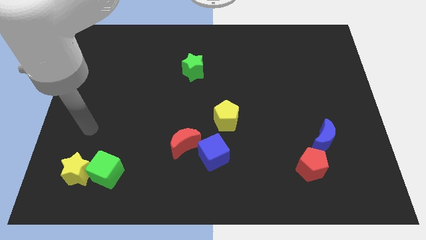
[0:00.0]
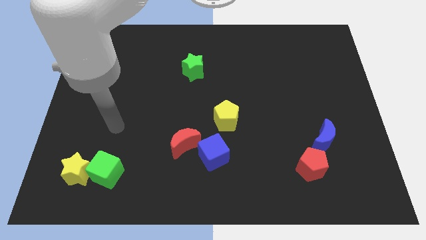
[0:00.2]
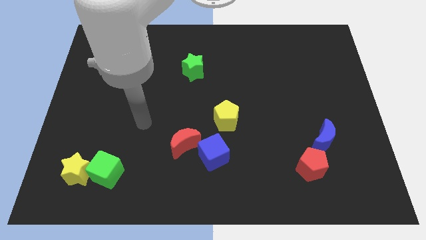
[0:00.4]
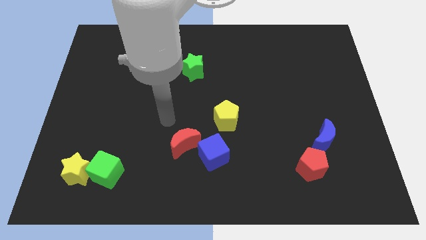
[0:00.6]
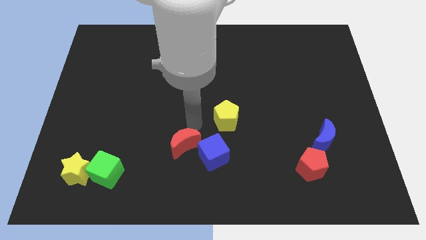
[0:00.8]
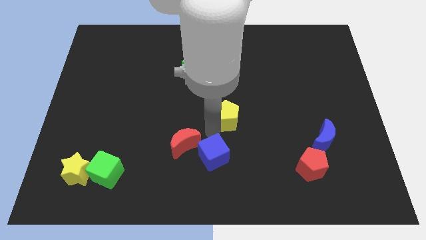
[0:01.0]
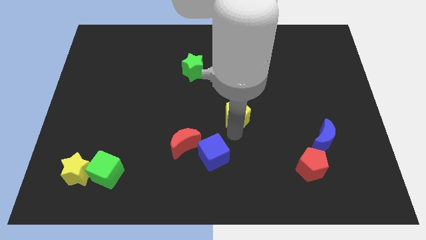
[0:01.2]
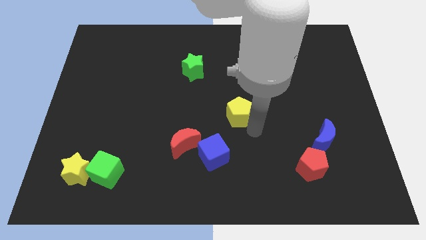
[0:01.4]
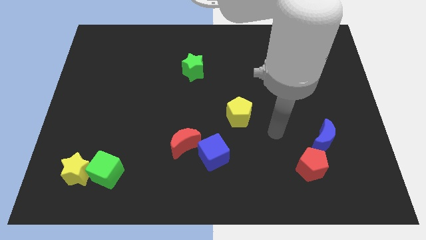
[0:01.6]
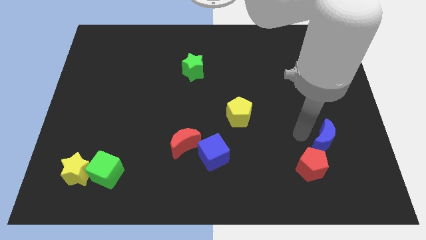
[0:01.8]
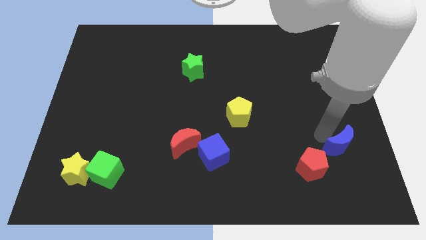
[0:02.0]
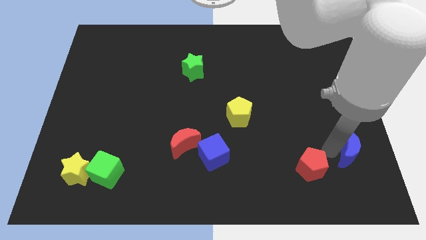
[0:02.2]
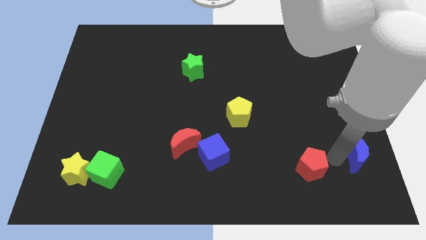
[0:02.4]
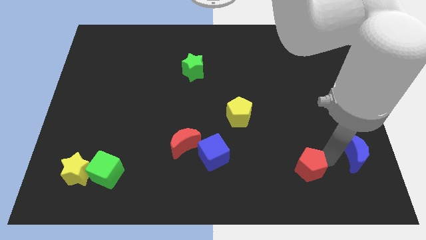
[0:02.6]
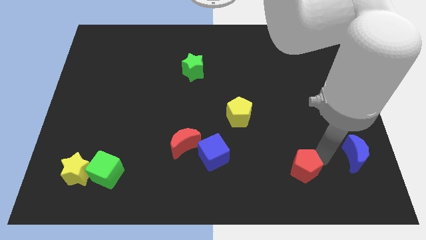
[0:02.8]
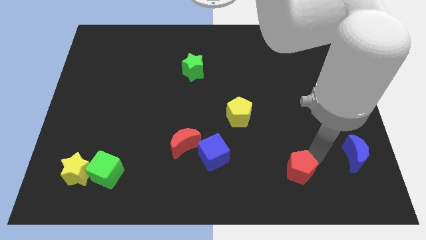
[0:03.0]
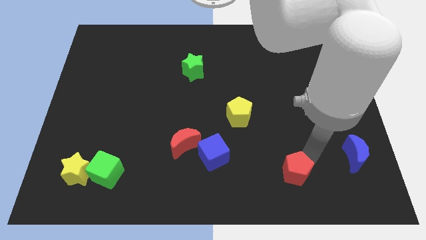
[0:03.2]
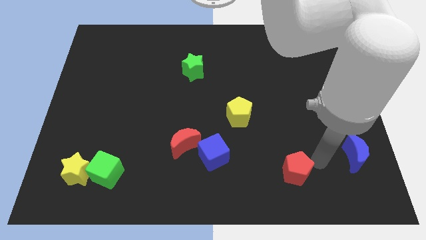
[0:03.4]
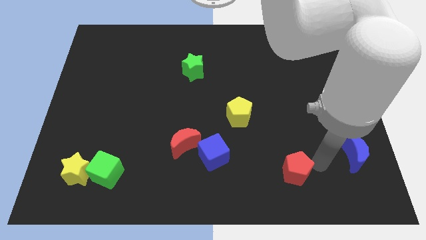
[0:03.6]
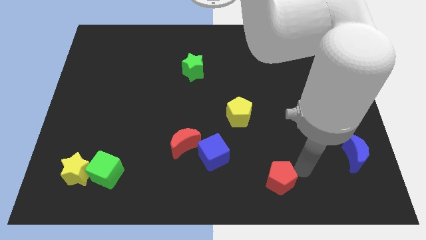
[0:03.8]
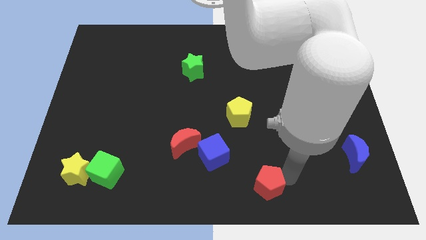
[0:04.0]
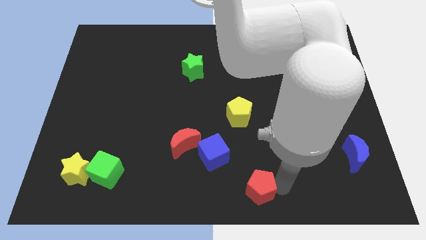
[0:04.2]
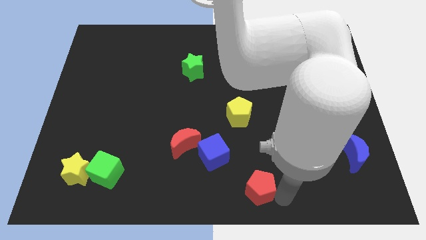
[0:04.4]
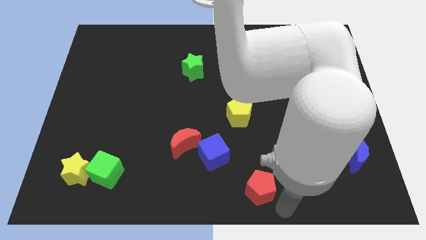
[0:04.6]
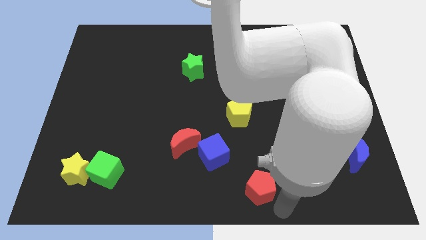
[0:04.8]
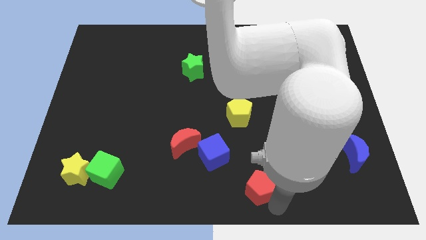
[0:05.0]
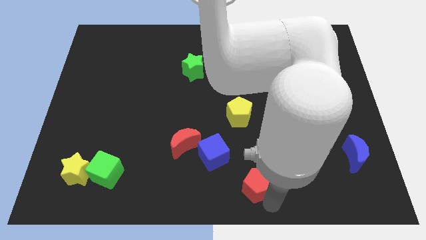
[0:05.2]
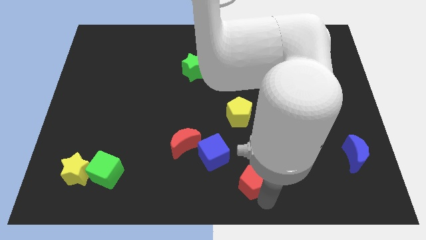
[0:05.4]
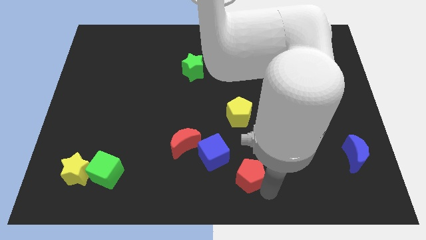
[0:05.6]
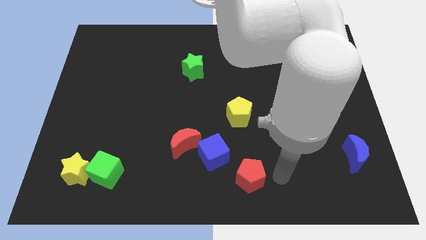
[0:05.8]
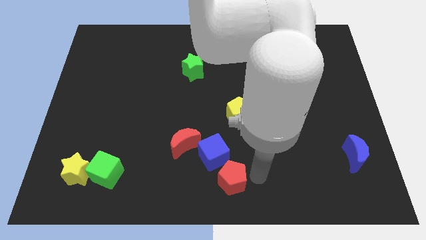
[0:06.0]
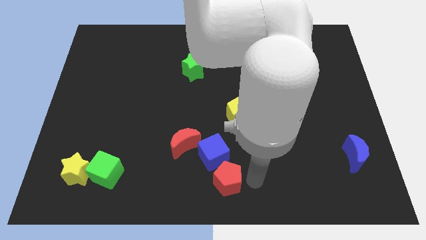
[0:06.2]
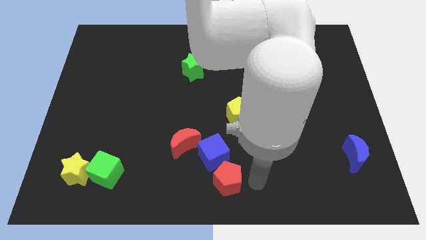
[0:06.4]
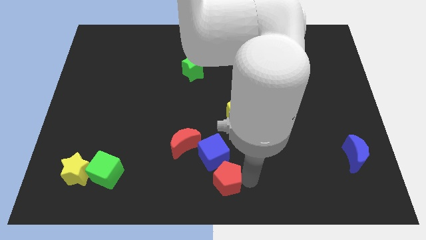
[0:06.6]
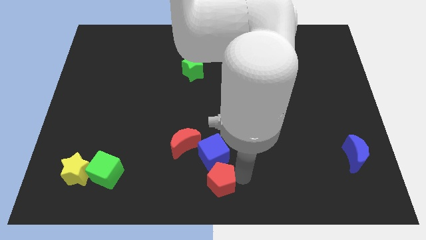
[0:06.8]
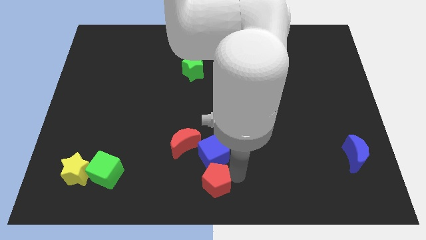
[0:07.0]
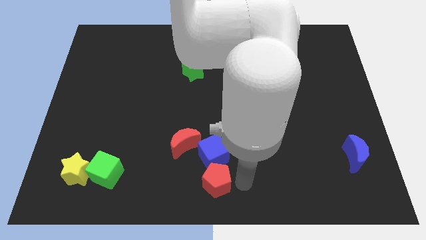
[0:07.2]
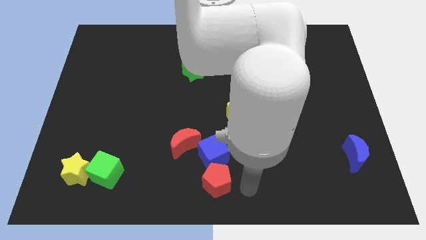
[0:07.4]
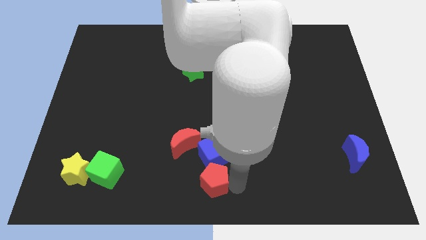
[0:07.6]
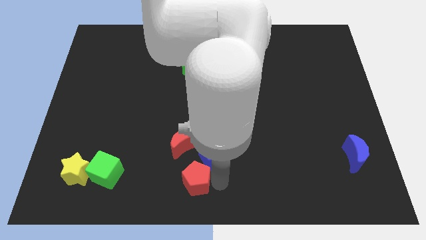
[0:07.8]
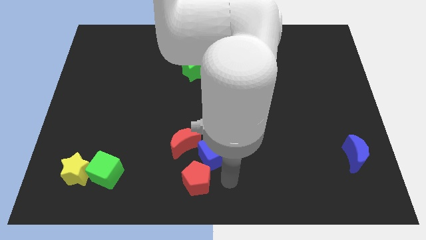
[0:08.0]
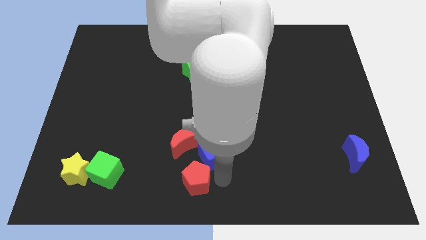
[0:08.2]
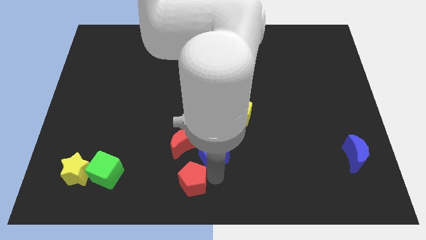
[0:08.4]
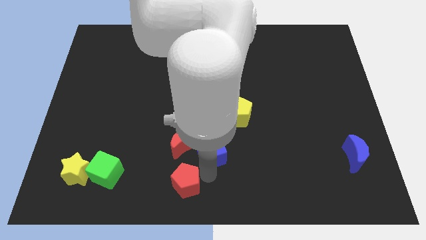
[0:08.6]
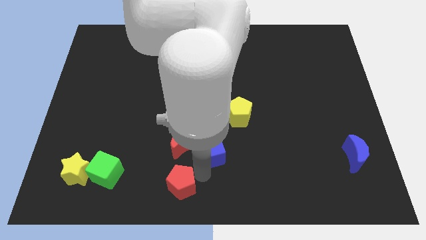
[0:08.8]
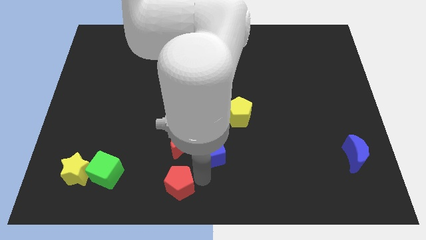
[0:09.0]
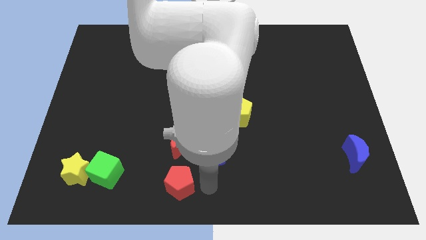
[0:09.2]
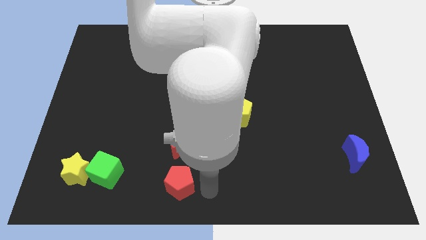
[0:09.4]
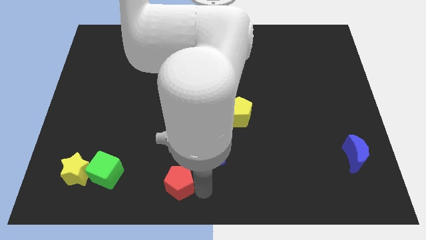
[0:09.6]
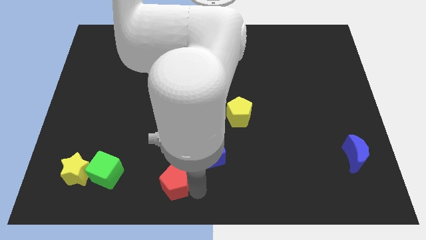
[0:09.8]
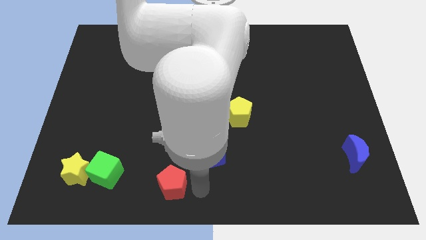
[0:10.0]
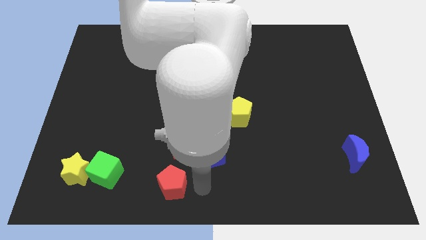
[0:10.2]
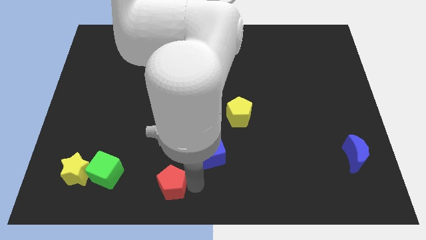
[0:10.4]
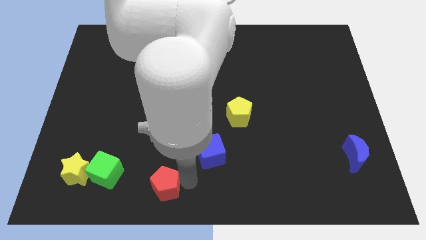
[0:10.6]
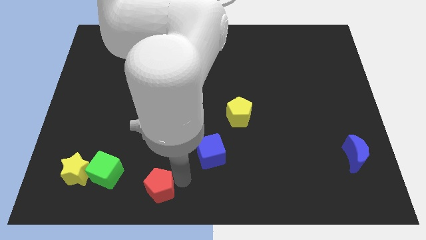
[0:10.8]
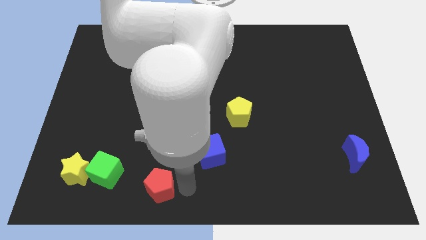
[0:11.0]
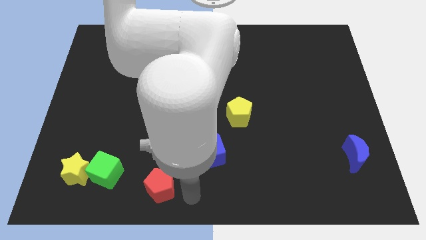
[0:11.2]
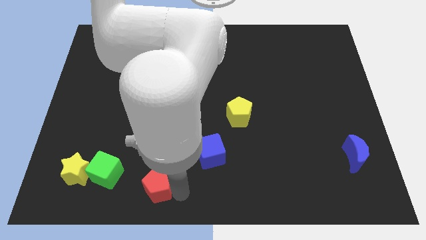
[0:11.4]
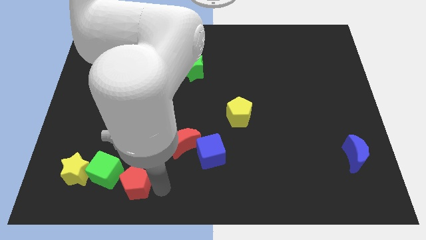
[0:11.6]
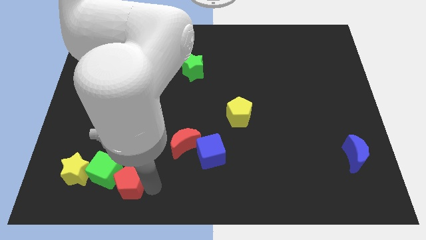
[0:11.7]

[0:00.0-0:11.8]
put the red pentagon next to the green cube

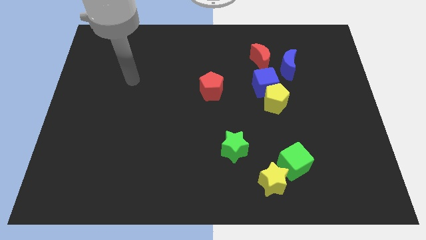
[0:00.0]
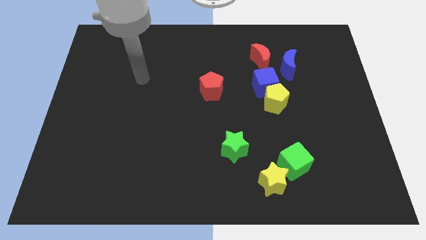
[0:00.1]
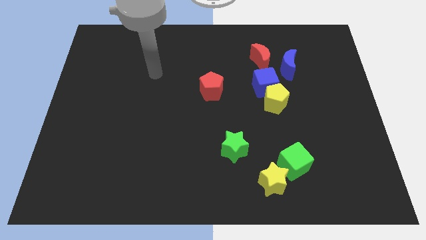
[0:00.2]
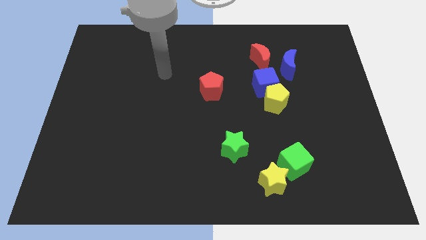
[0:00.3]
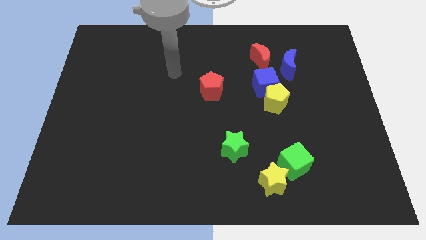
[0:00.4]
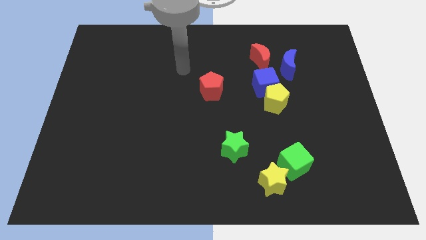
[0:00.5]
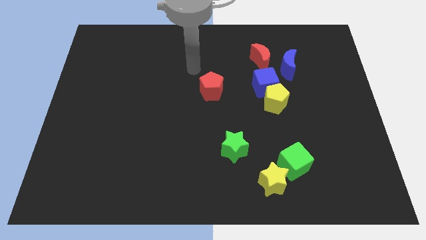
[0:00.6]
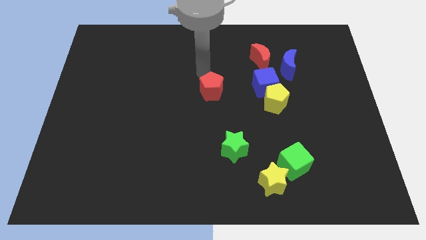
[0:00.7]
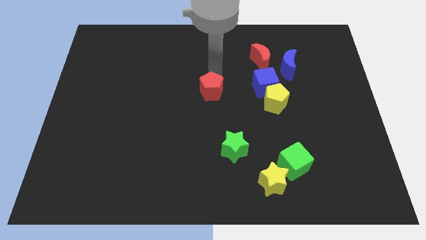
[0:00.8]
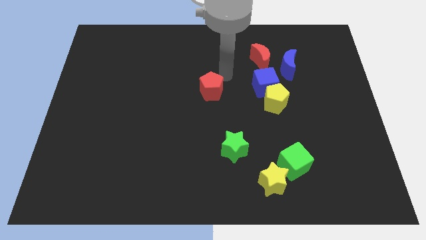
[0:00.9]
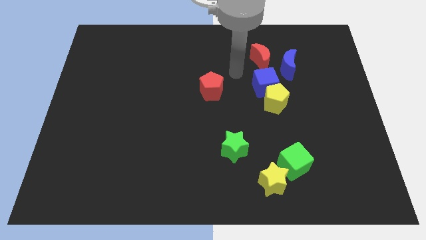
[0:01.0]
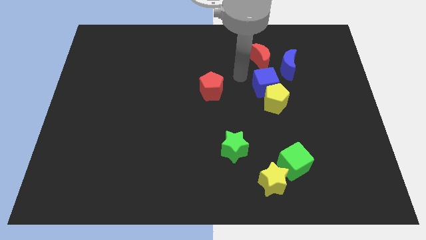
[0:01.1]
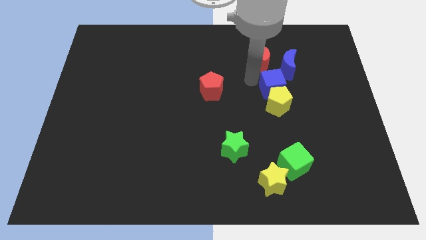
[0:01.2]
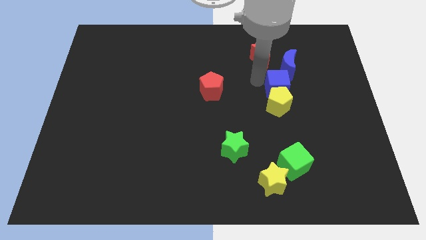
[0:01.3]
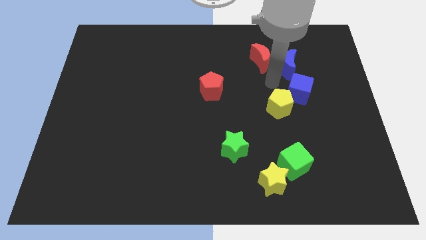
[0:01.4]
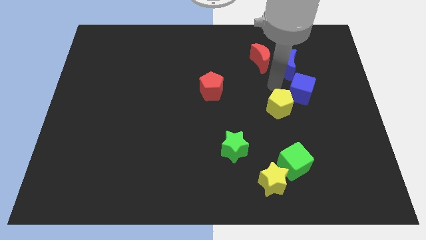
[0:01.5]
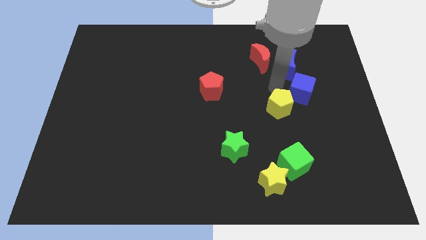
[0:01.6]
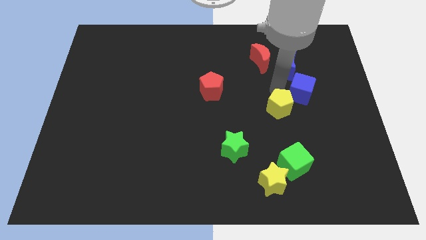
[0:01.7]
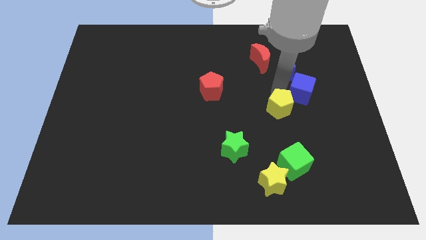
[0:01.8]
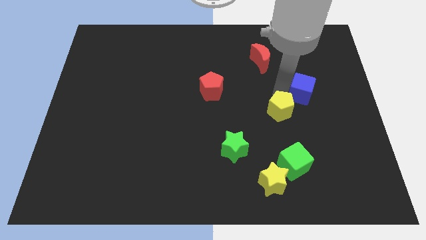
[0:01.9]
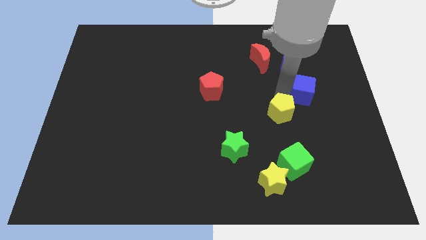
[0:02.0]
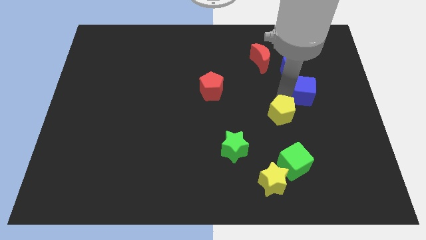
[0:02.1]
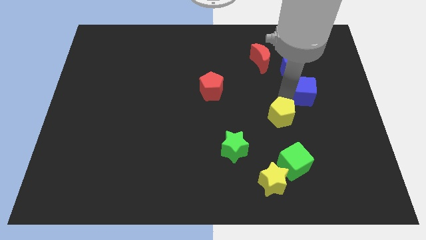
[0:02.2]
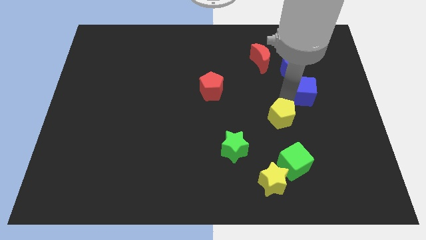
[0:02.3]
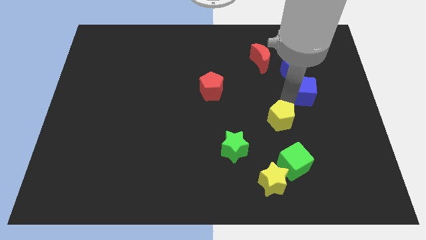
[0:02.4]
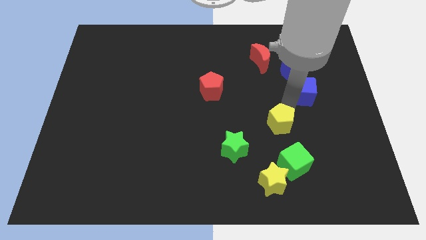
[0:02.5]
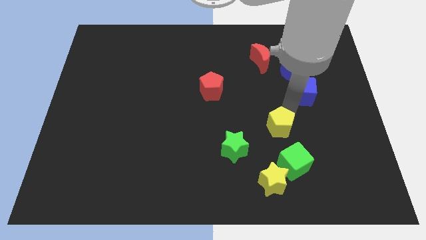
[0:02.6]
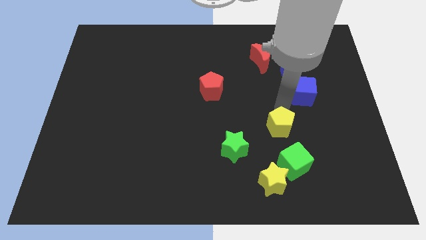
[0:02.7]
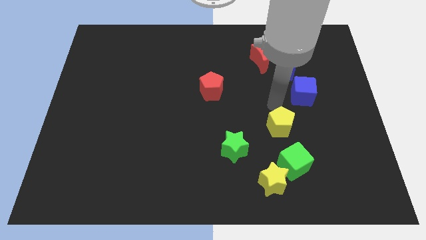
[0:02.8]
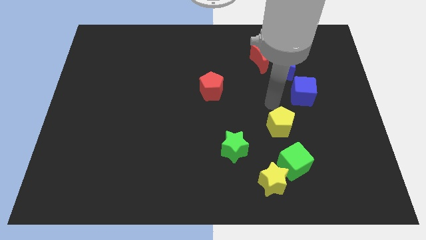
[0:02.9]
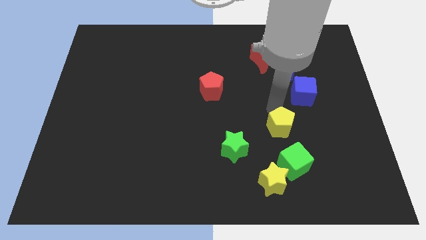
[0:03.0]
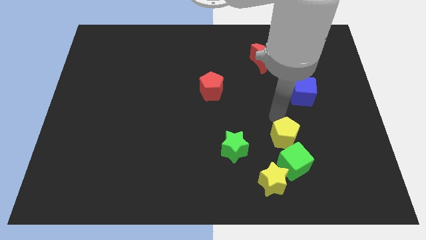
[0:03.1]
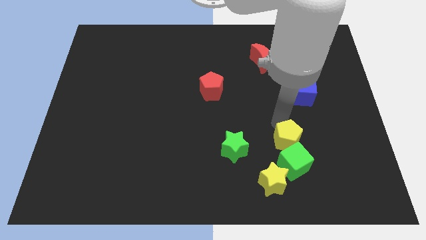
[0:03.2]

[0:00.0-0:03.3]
put the yellow pentagon next to the green cube
